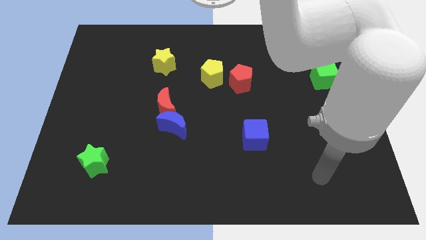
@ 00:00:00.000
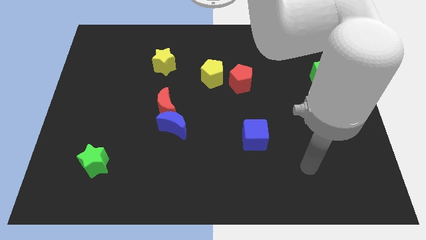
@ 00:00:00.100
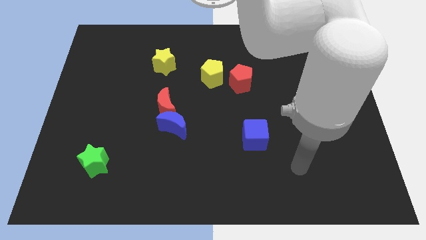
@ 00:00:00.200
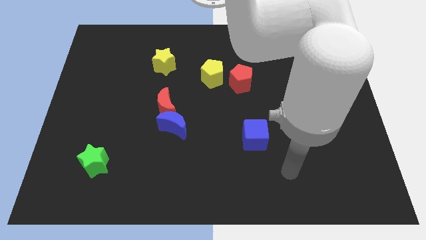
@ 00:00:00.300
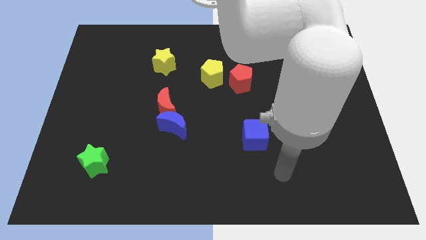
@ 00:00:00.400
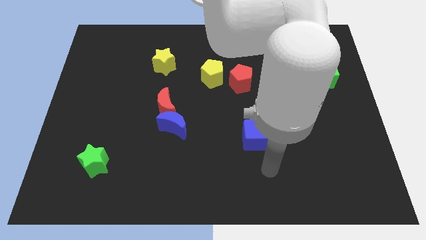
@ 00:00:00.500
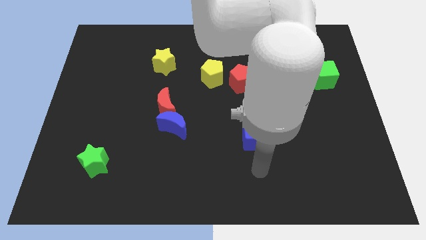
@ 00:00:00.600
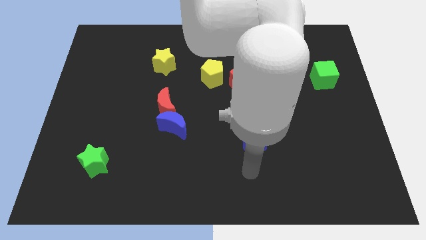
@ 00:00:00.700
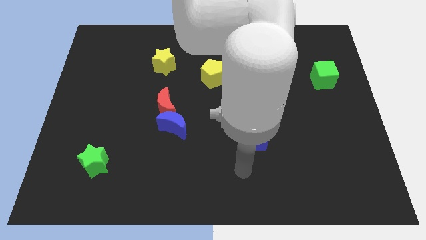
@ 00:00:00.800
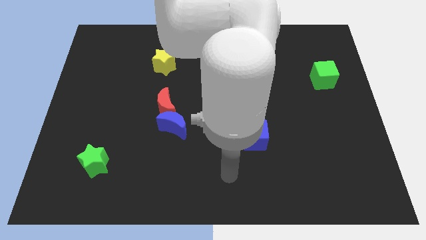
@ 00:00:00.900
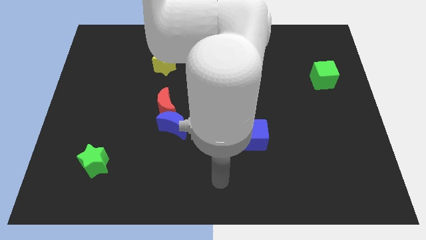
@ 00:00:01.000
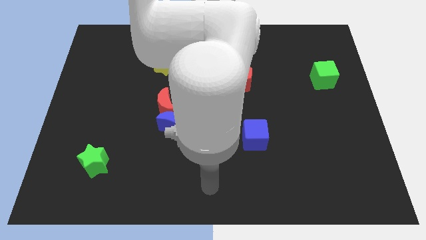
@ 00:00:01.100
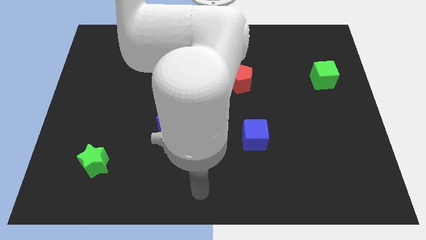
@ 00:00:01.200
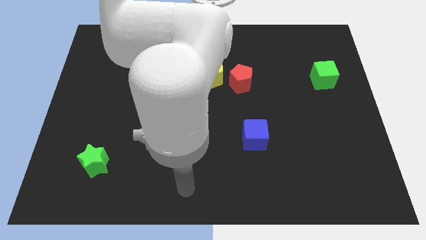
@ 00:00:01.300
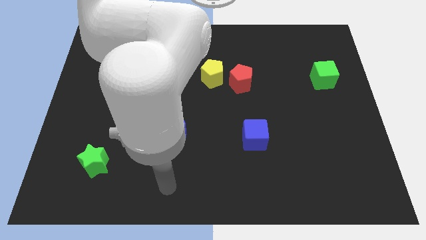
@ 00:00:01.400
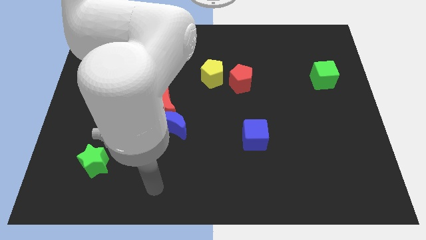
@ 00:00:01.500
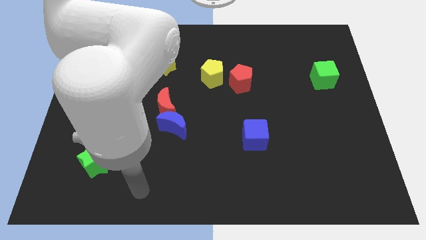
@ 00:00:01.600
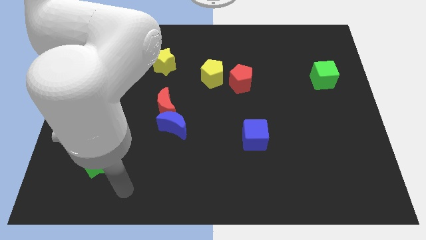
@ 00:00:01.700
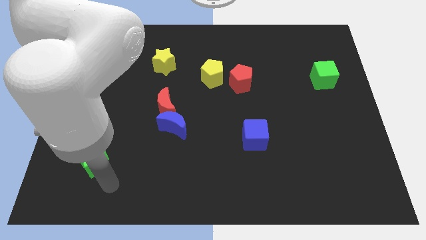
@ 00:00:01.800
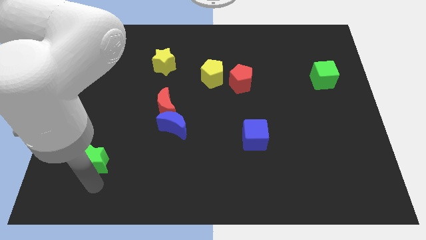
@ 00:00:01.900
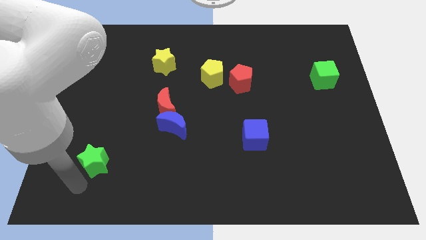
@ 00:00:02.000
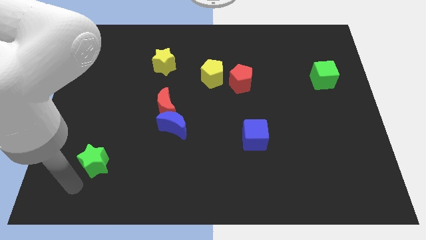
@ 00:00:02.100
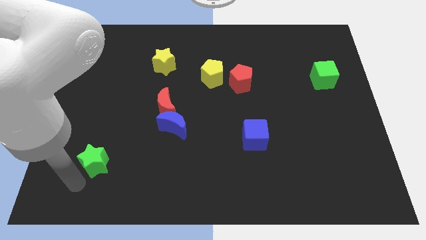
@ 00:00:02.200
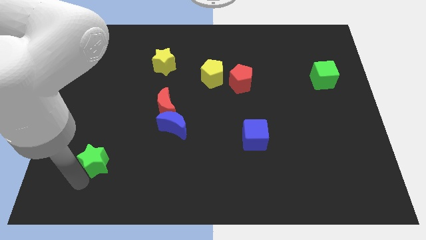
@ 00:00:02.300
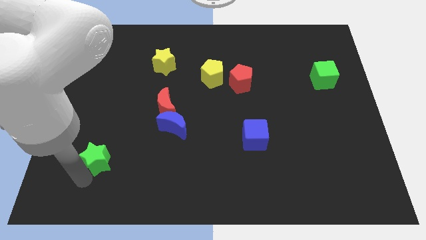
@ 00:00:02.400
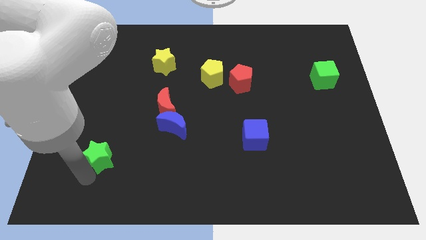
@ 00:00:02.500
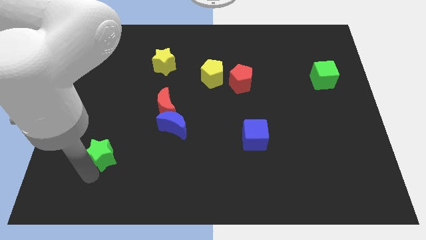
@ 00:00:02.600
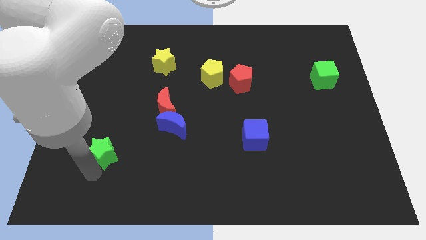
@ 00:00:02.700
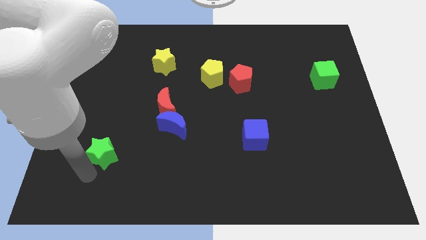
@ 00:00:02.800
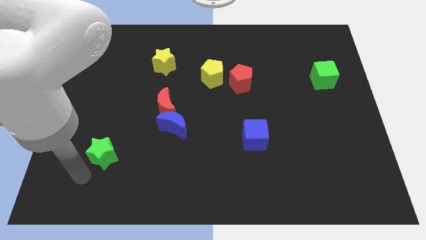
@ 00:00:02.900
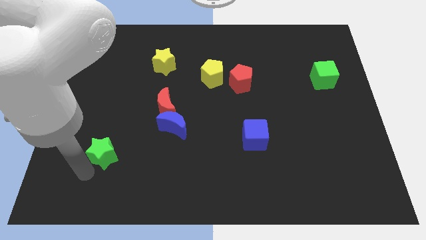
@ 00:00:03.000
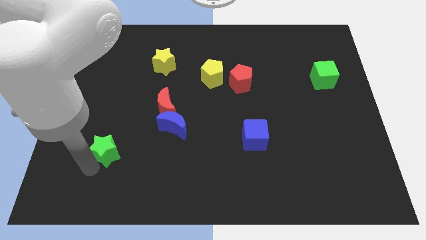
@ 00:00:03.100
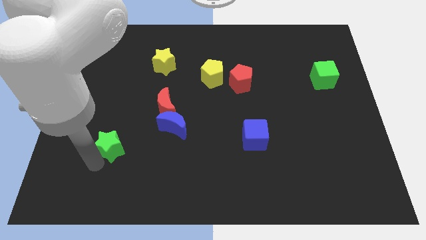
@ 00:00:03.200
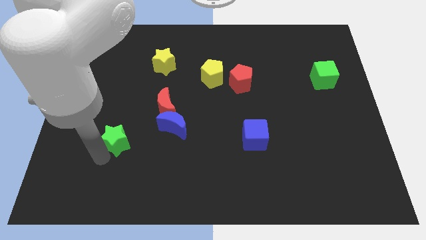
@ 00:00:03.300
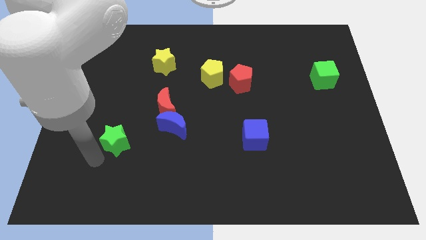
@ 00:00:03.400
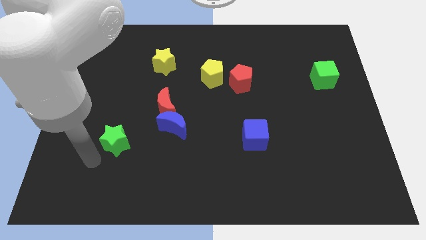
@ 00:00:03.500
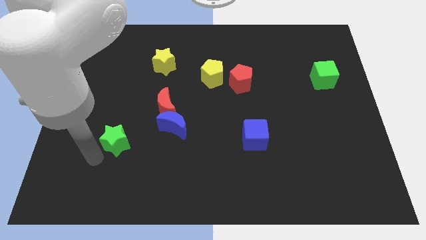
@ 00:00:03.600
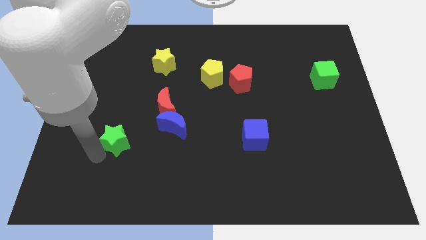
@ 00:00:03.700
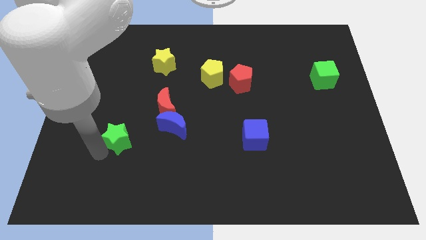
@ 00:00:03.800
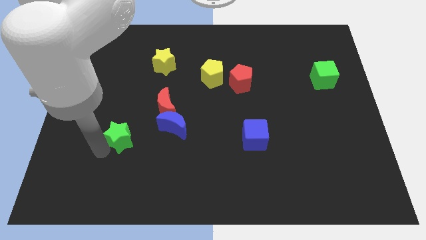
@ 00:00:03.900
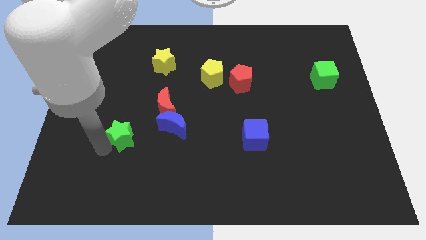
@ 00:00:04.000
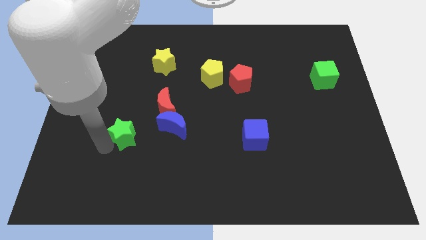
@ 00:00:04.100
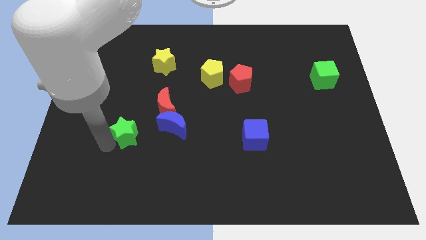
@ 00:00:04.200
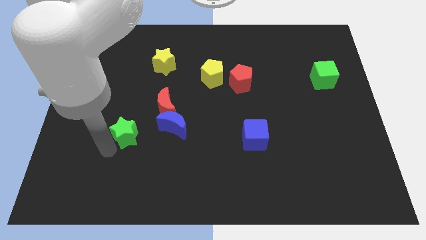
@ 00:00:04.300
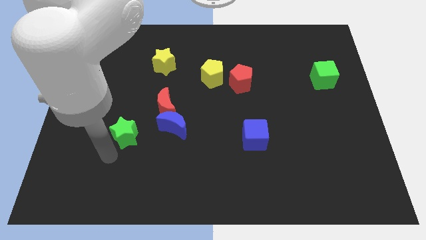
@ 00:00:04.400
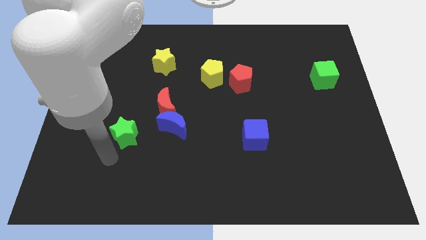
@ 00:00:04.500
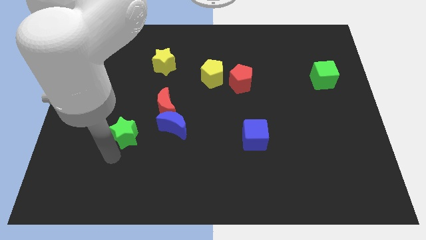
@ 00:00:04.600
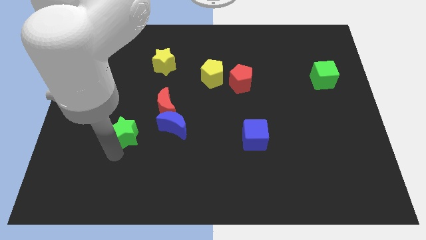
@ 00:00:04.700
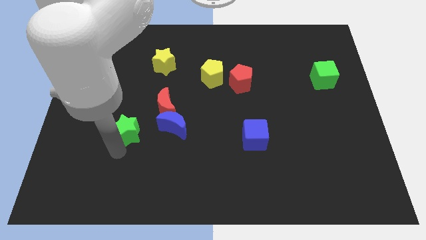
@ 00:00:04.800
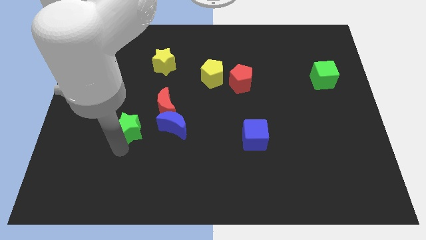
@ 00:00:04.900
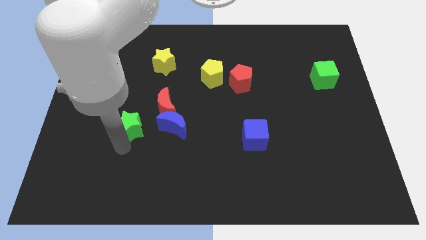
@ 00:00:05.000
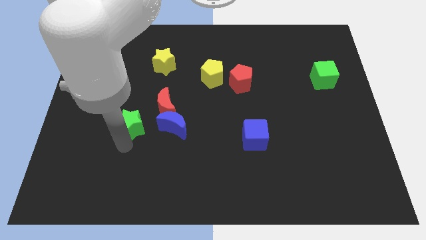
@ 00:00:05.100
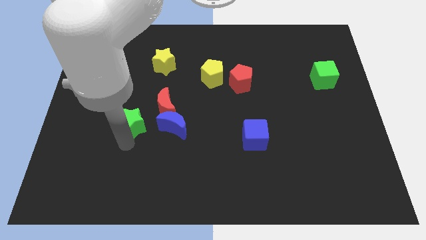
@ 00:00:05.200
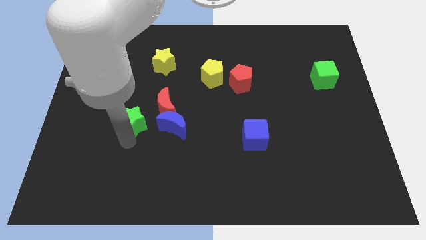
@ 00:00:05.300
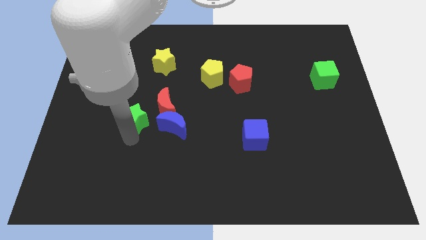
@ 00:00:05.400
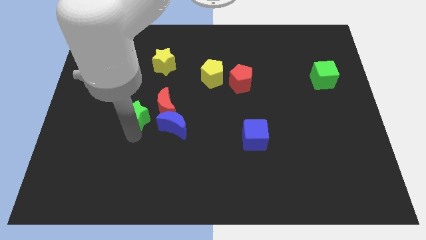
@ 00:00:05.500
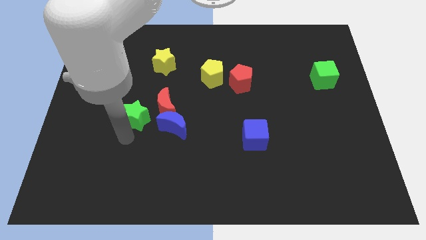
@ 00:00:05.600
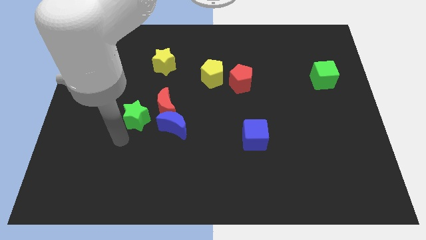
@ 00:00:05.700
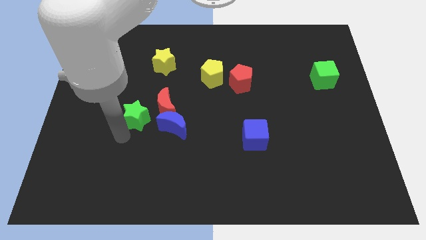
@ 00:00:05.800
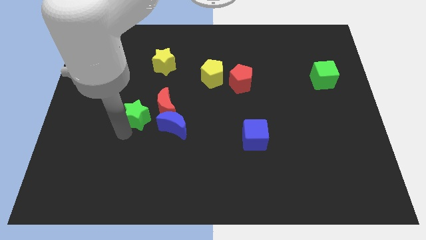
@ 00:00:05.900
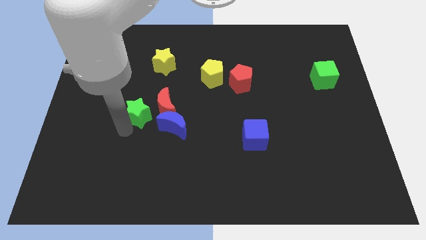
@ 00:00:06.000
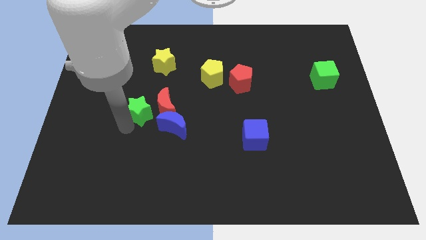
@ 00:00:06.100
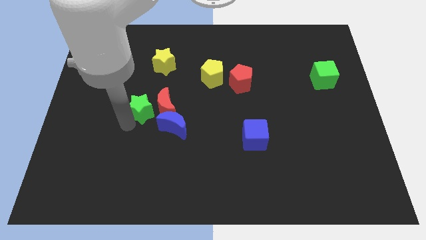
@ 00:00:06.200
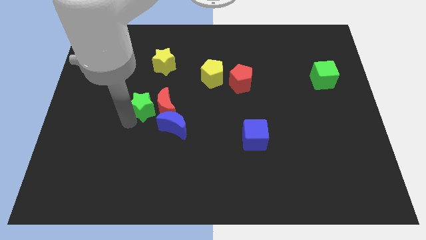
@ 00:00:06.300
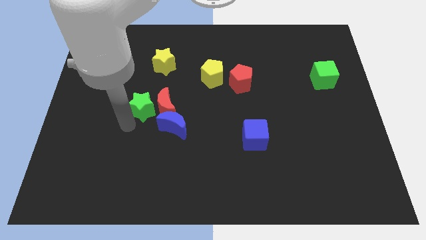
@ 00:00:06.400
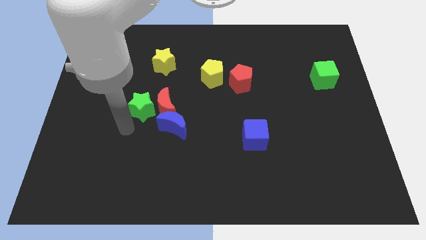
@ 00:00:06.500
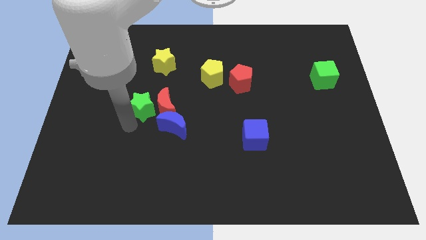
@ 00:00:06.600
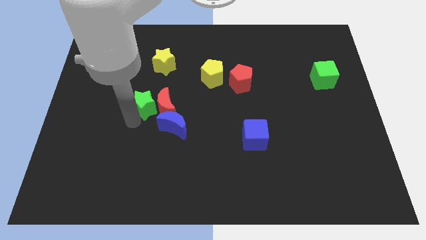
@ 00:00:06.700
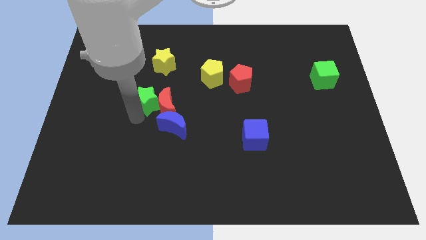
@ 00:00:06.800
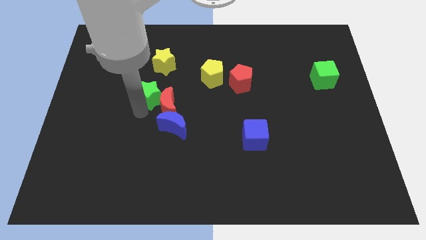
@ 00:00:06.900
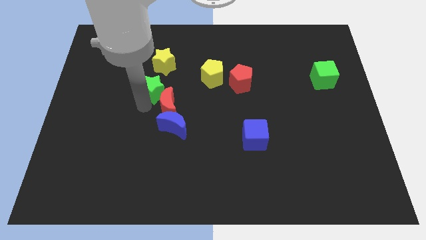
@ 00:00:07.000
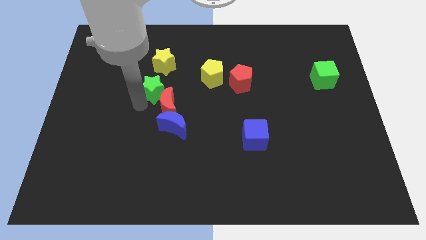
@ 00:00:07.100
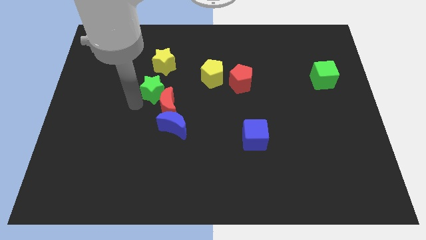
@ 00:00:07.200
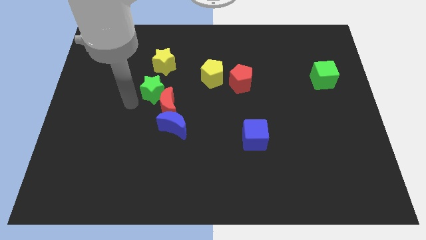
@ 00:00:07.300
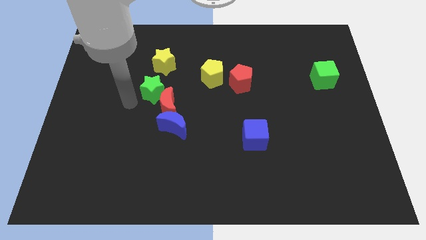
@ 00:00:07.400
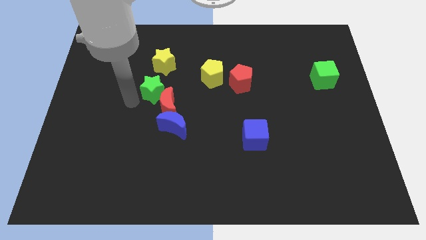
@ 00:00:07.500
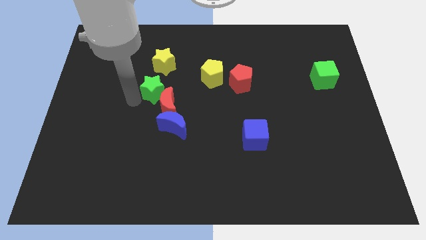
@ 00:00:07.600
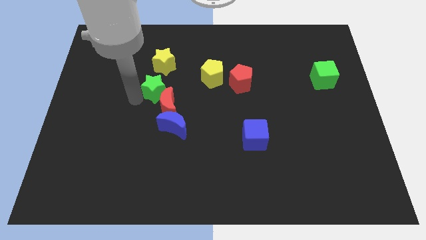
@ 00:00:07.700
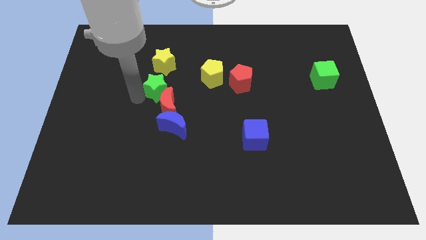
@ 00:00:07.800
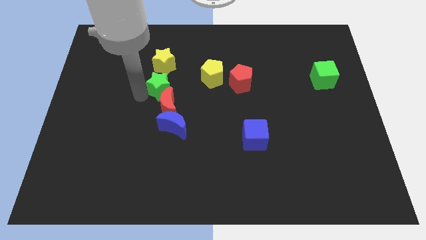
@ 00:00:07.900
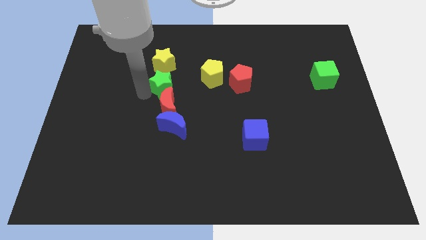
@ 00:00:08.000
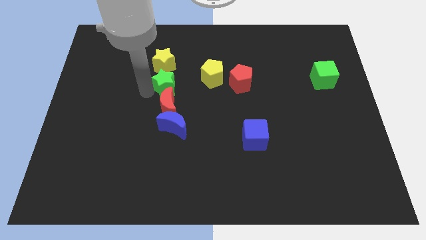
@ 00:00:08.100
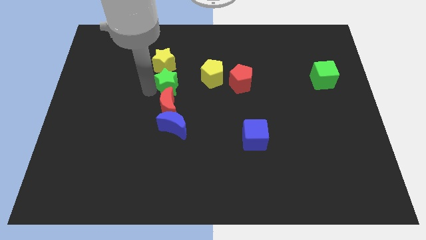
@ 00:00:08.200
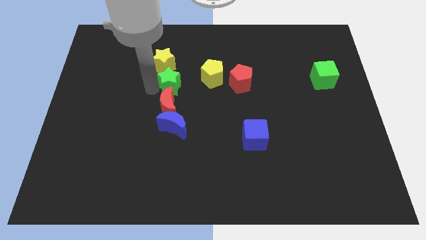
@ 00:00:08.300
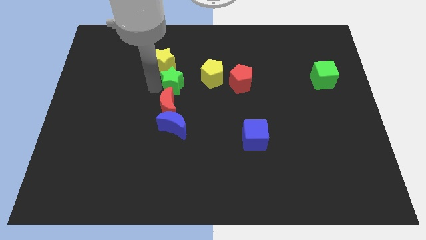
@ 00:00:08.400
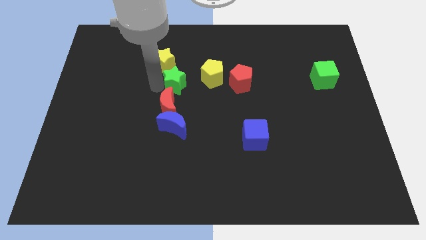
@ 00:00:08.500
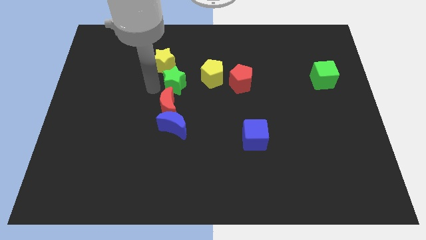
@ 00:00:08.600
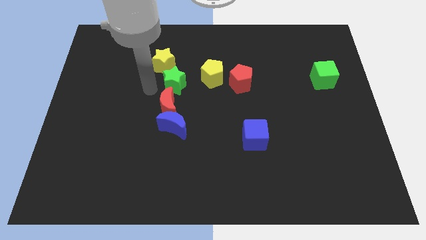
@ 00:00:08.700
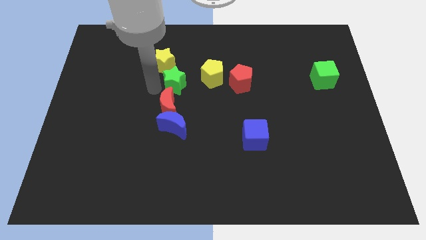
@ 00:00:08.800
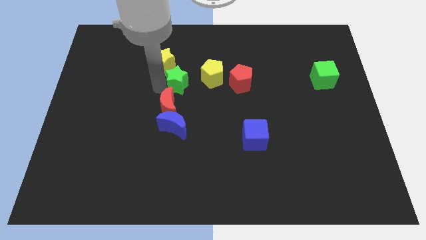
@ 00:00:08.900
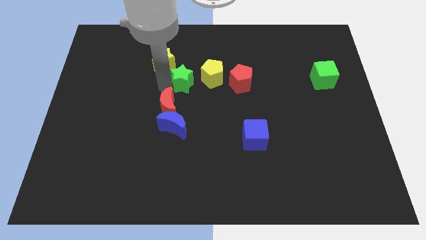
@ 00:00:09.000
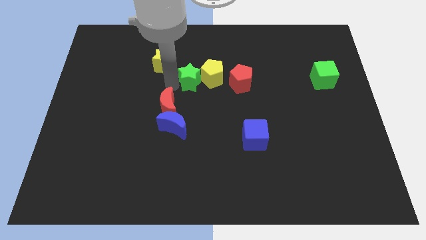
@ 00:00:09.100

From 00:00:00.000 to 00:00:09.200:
slide the green star close to the yellow pentagon
